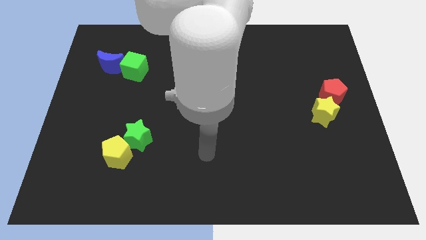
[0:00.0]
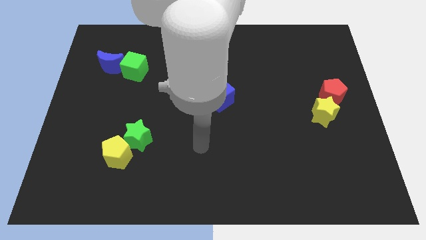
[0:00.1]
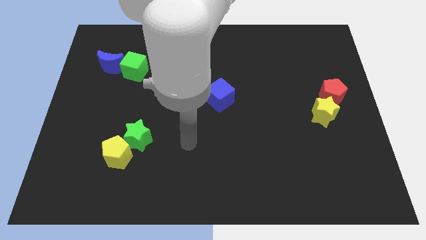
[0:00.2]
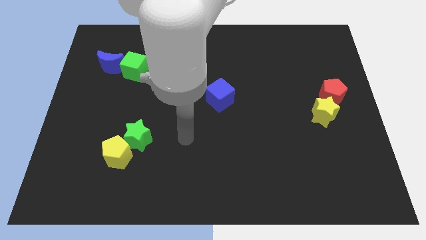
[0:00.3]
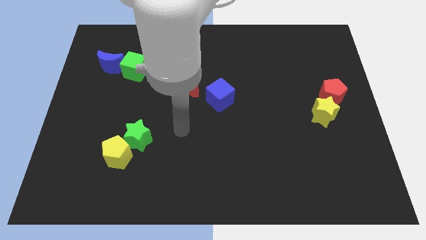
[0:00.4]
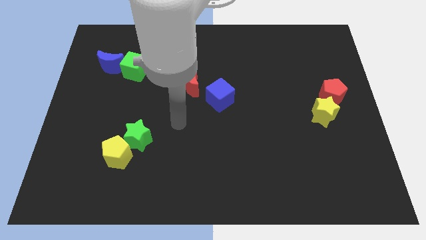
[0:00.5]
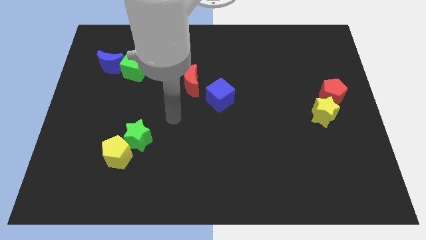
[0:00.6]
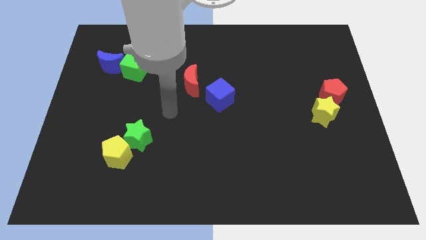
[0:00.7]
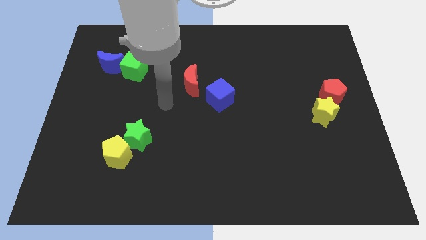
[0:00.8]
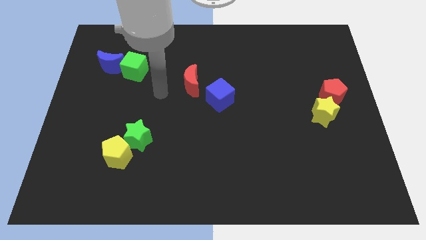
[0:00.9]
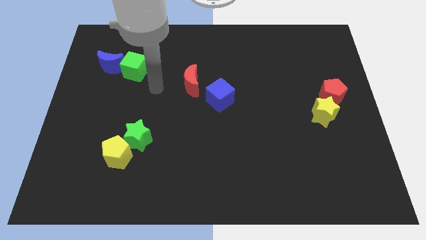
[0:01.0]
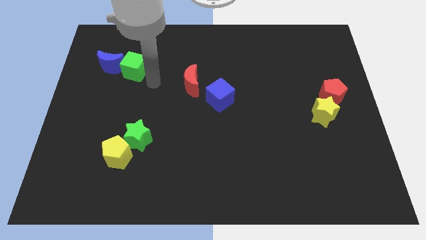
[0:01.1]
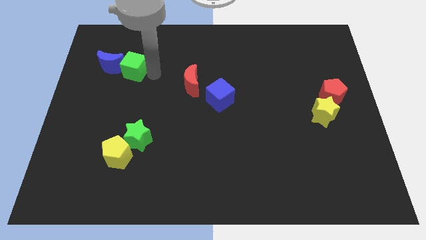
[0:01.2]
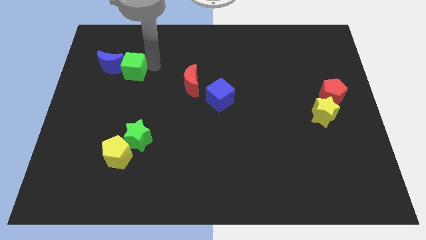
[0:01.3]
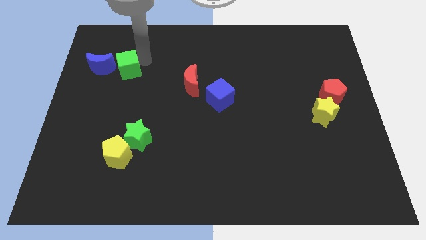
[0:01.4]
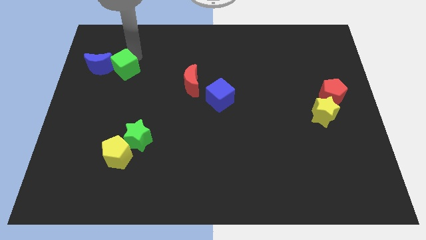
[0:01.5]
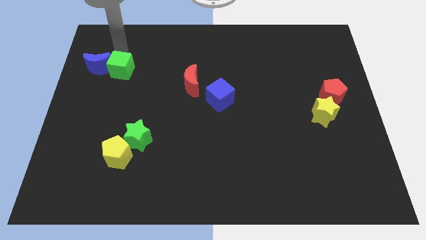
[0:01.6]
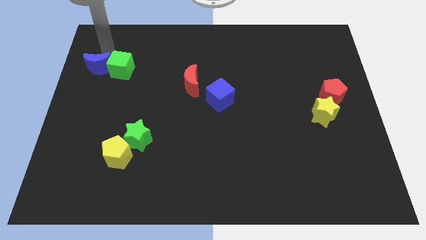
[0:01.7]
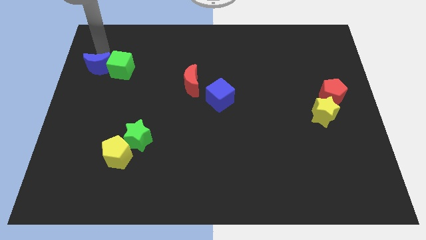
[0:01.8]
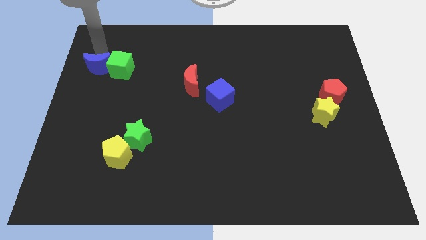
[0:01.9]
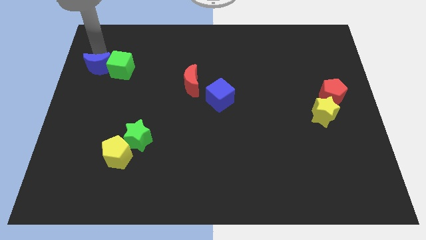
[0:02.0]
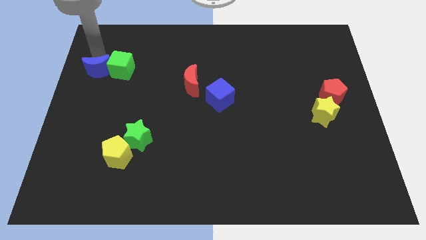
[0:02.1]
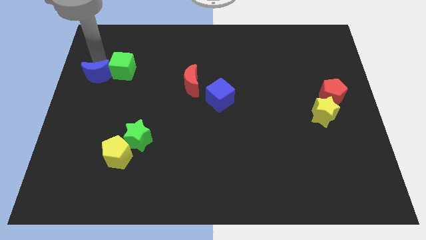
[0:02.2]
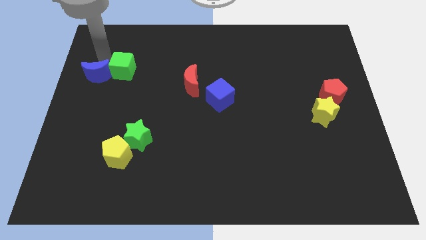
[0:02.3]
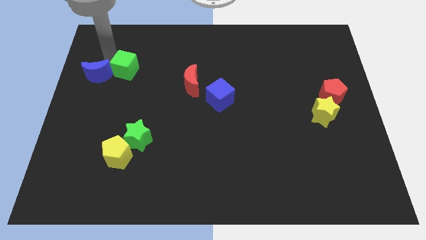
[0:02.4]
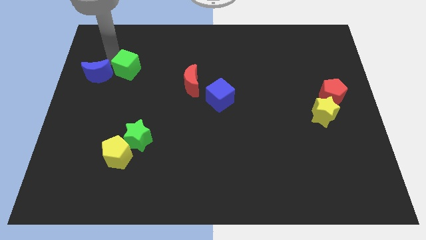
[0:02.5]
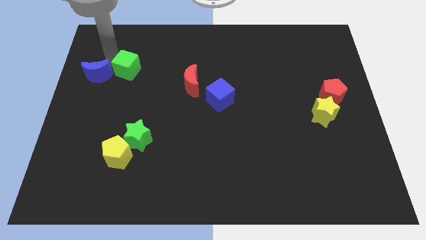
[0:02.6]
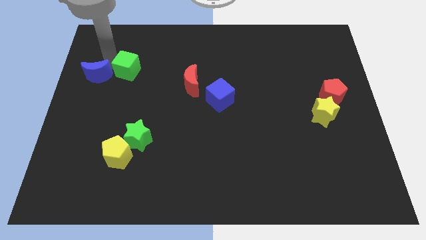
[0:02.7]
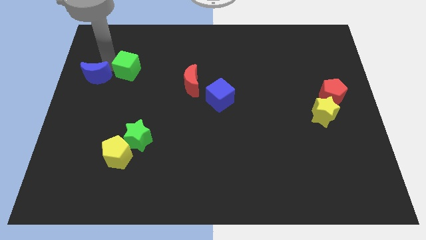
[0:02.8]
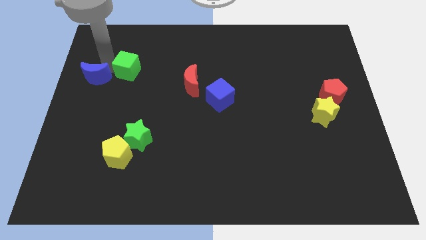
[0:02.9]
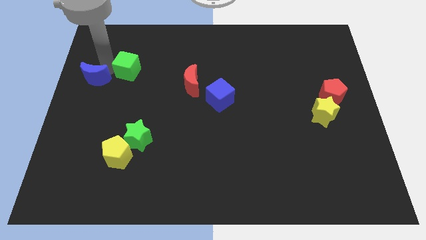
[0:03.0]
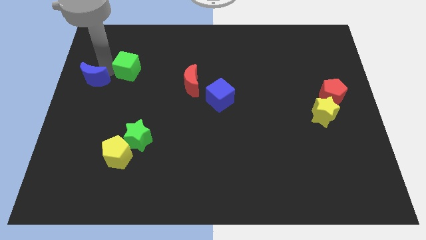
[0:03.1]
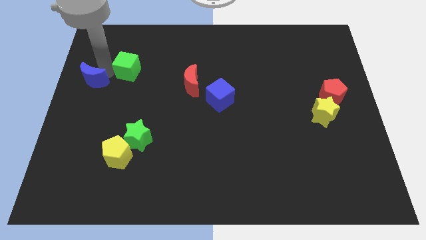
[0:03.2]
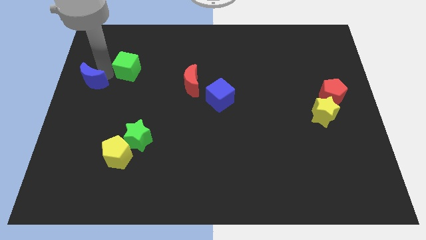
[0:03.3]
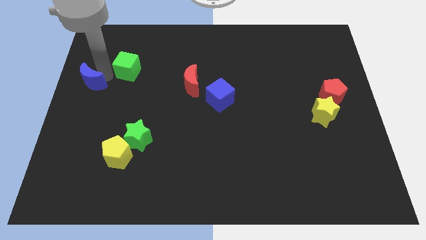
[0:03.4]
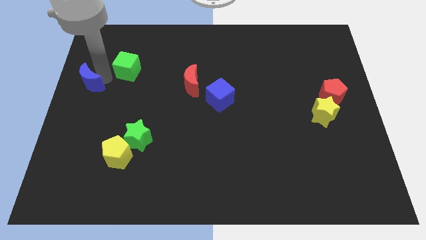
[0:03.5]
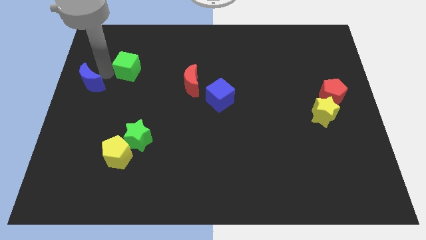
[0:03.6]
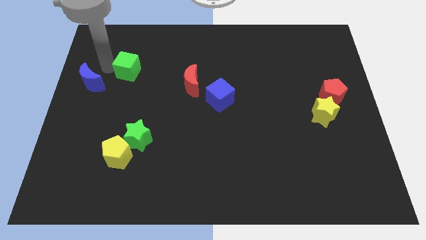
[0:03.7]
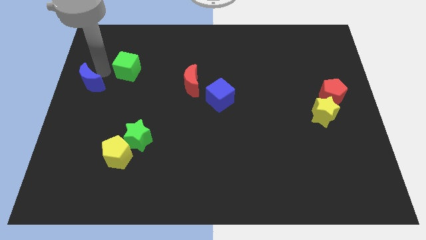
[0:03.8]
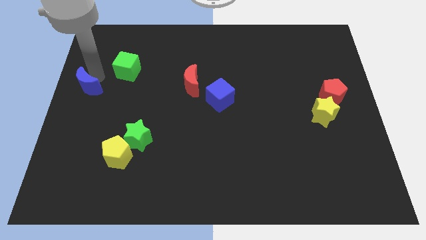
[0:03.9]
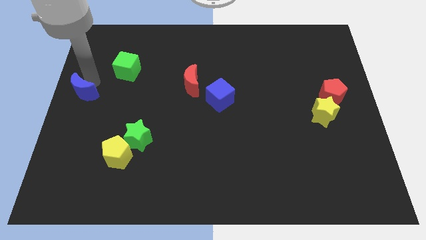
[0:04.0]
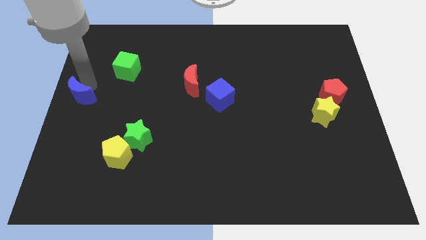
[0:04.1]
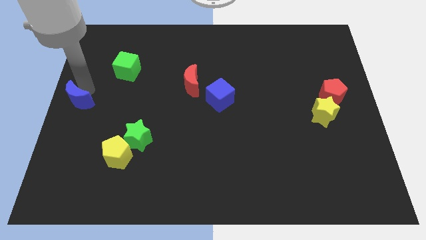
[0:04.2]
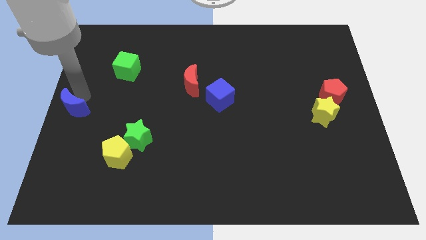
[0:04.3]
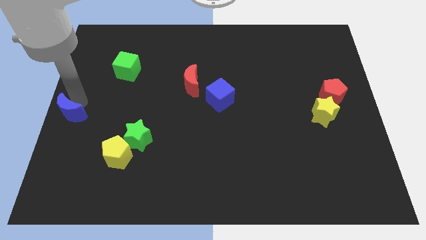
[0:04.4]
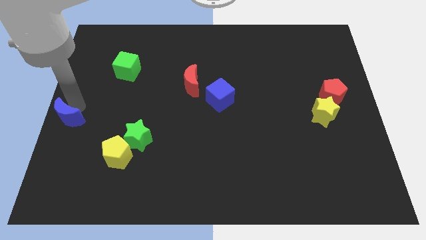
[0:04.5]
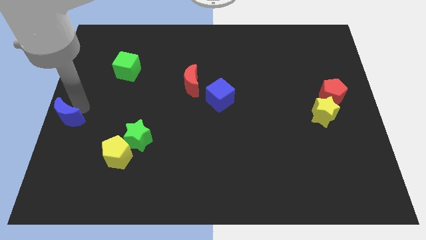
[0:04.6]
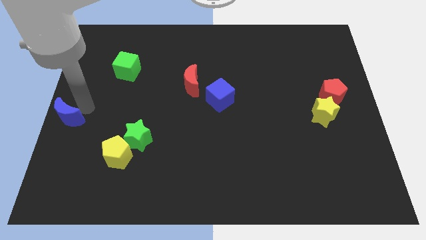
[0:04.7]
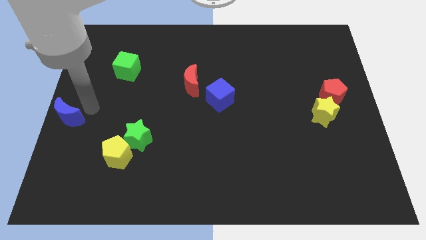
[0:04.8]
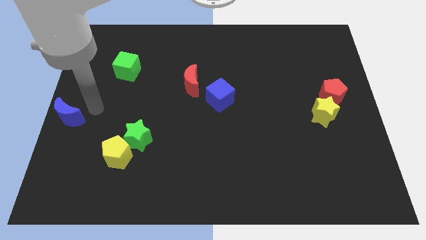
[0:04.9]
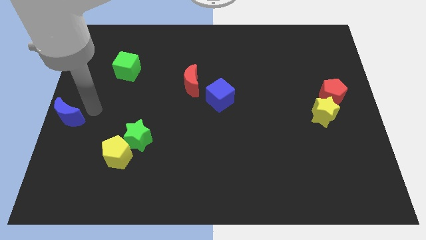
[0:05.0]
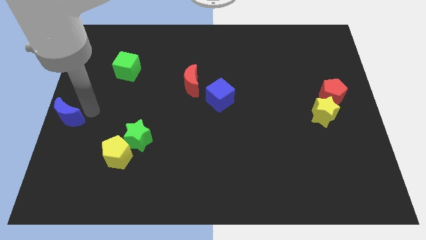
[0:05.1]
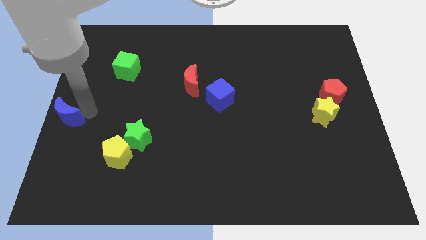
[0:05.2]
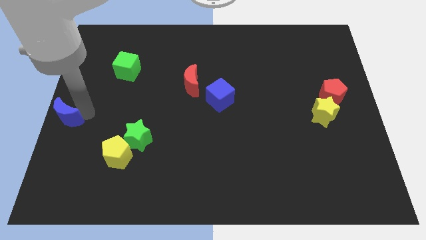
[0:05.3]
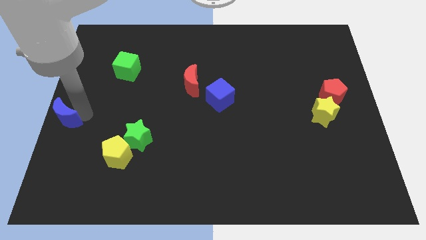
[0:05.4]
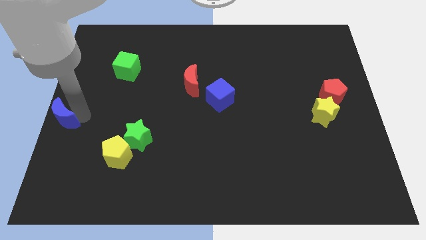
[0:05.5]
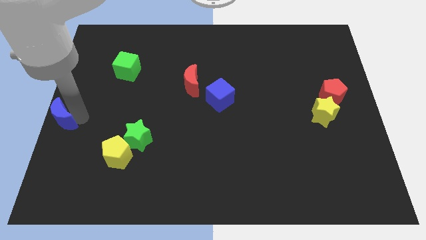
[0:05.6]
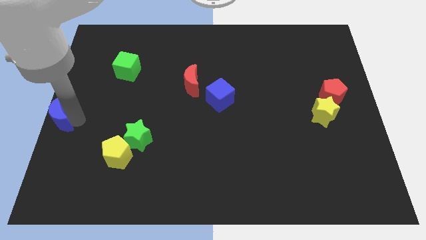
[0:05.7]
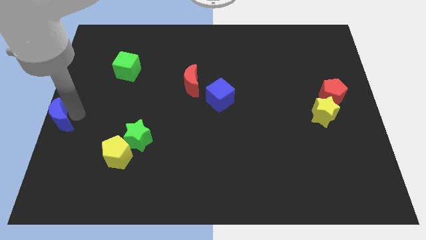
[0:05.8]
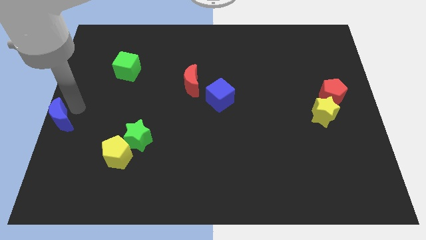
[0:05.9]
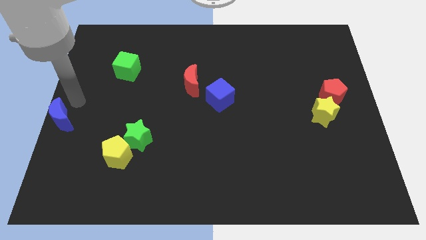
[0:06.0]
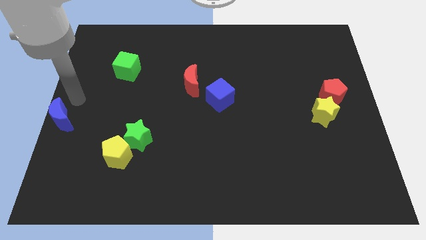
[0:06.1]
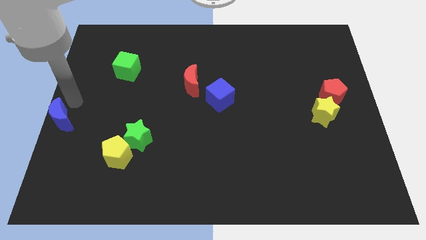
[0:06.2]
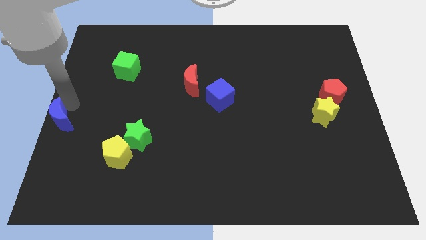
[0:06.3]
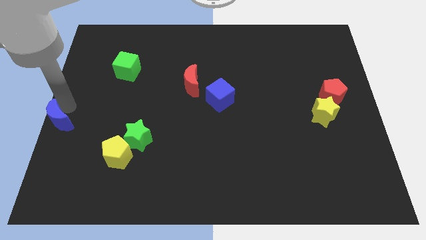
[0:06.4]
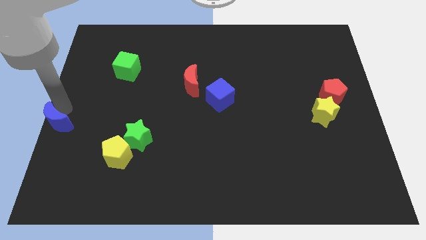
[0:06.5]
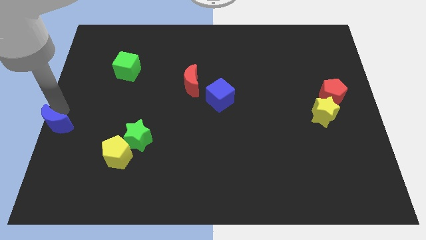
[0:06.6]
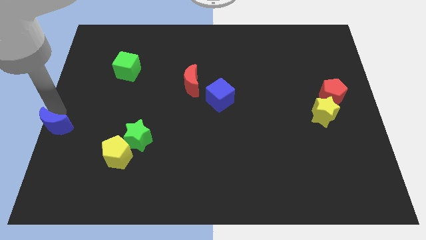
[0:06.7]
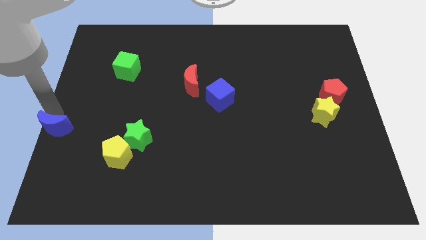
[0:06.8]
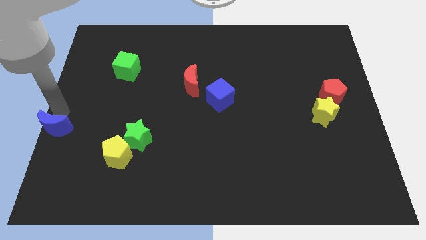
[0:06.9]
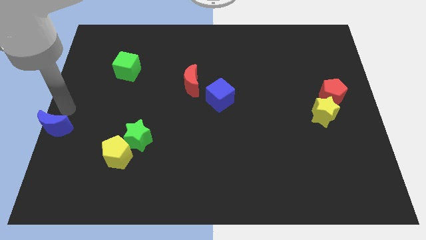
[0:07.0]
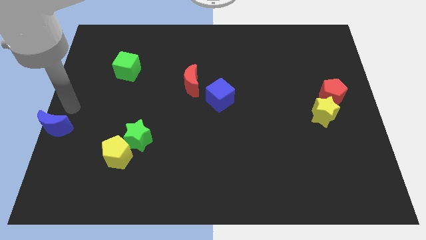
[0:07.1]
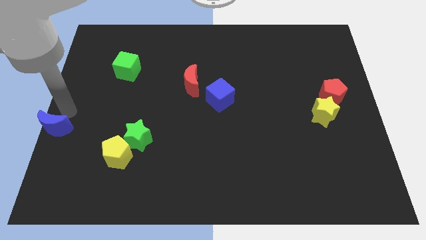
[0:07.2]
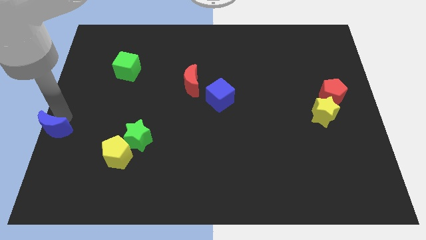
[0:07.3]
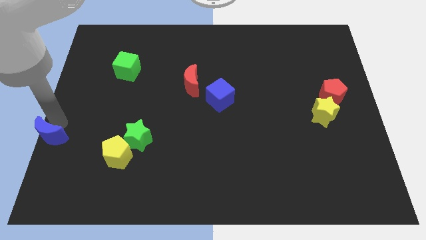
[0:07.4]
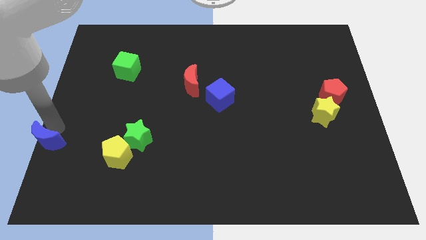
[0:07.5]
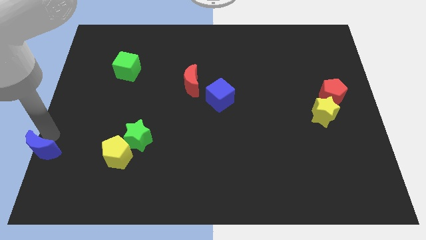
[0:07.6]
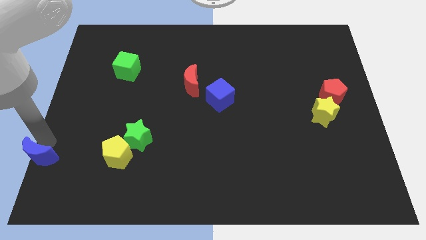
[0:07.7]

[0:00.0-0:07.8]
put the blue moon to the bottom left of the board
